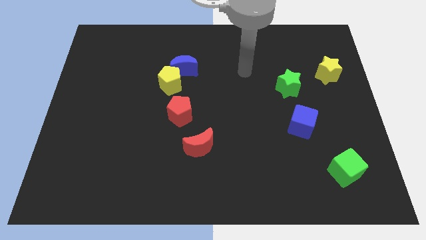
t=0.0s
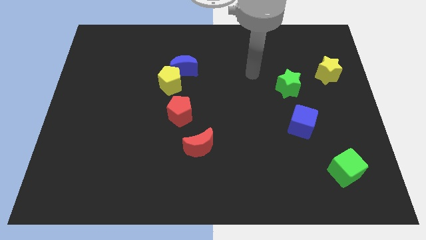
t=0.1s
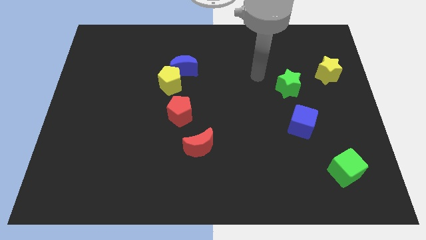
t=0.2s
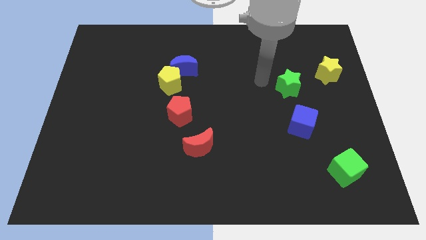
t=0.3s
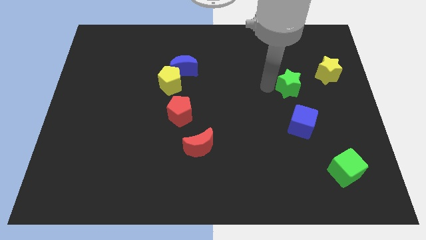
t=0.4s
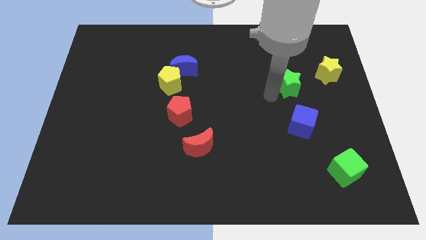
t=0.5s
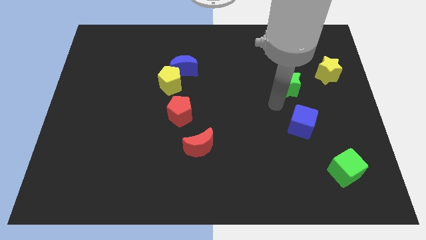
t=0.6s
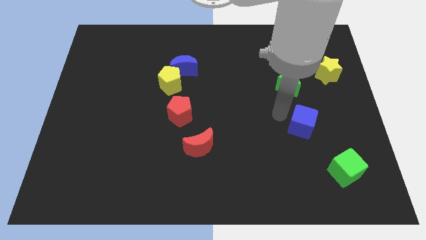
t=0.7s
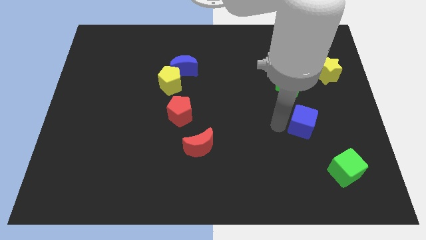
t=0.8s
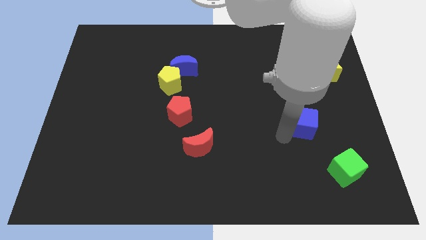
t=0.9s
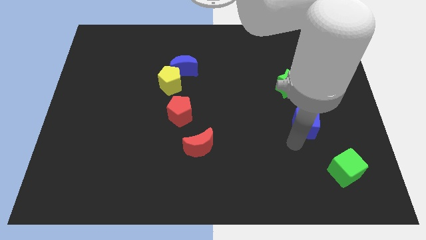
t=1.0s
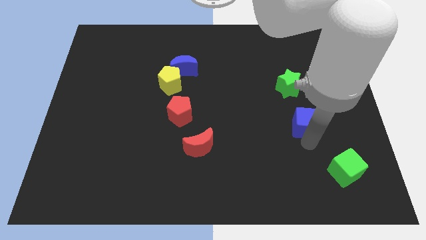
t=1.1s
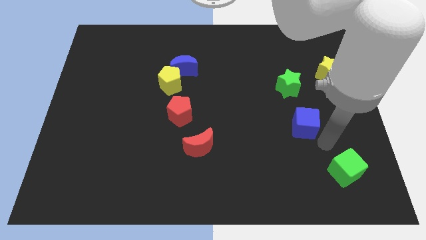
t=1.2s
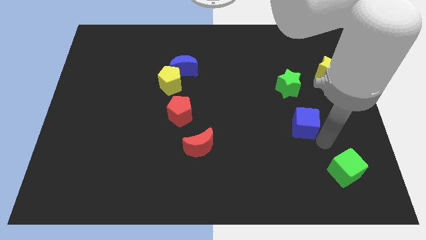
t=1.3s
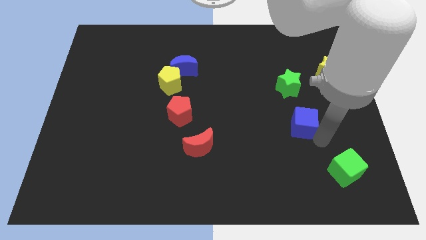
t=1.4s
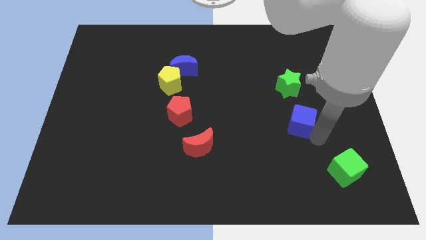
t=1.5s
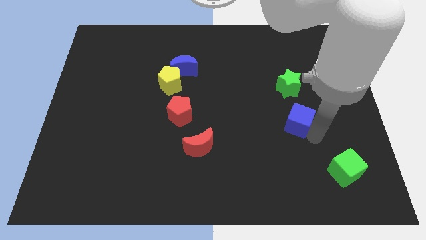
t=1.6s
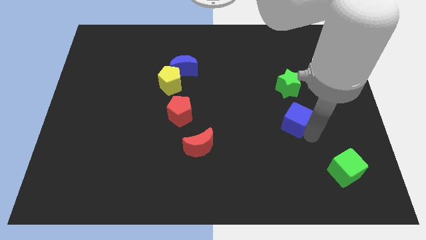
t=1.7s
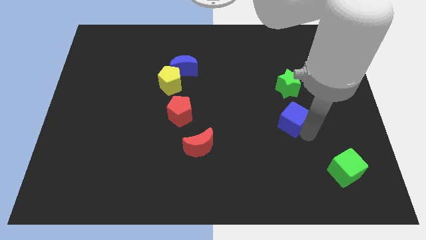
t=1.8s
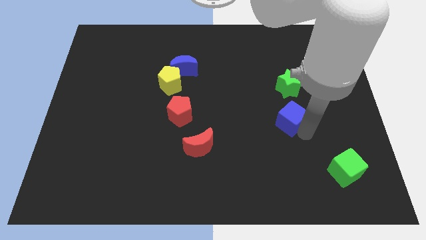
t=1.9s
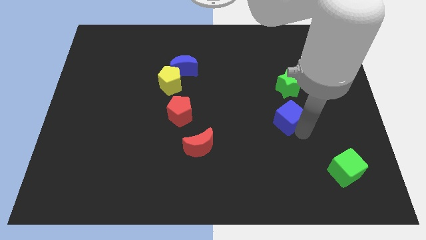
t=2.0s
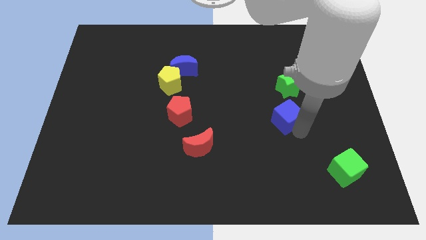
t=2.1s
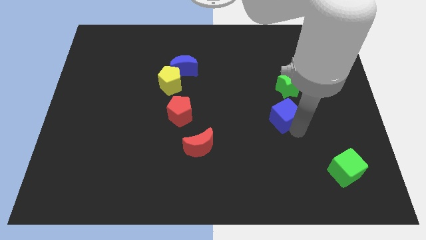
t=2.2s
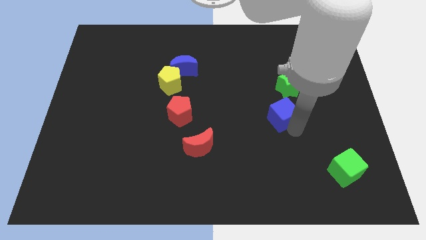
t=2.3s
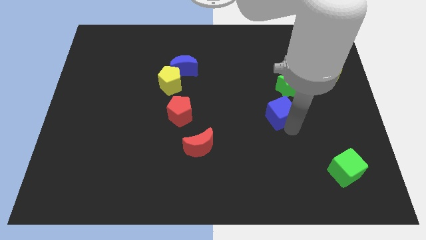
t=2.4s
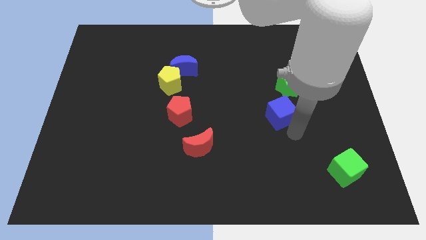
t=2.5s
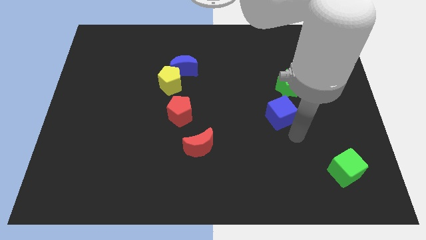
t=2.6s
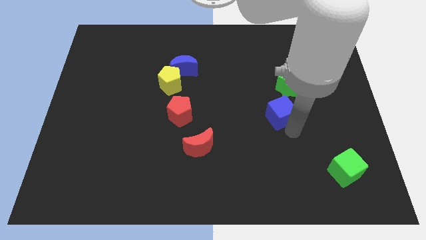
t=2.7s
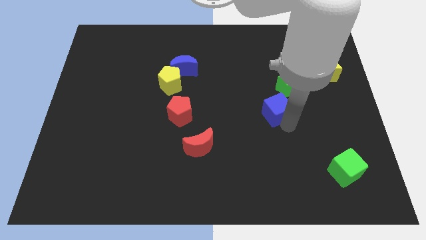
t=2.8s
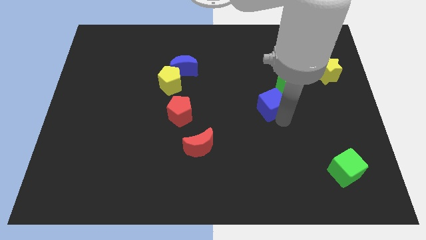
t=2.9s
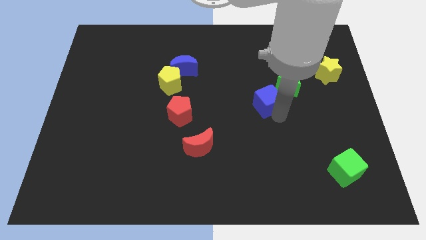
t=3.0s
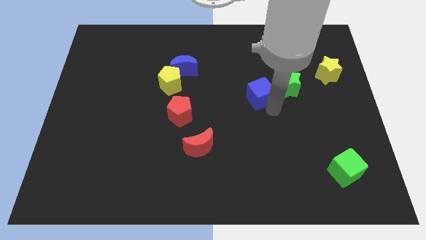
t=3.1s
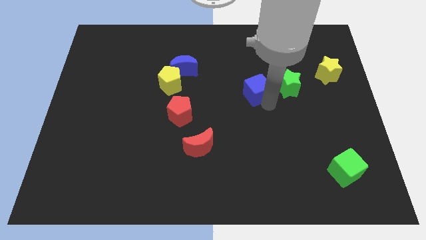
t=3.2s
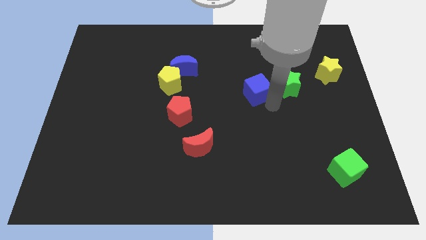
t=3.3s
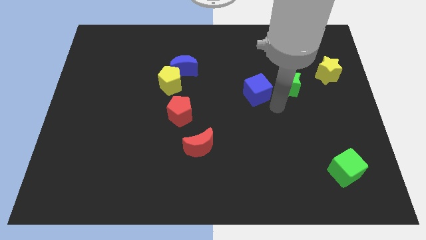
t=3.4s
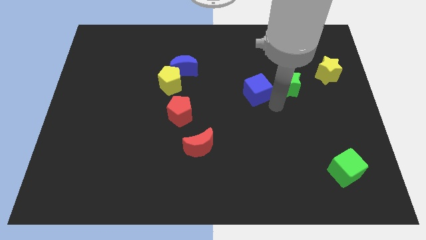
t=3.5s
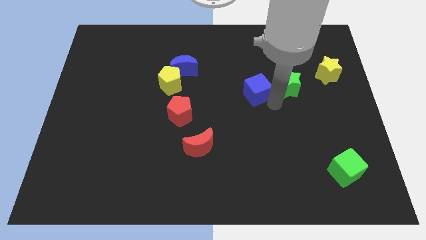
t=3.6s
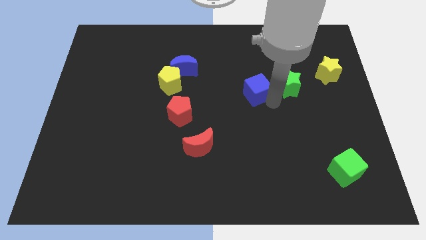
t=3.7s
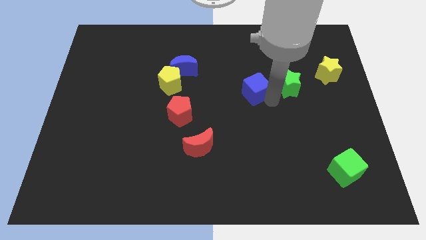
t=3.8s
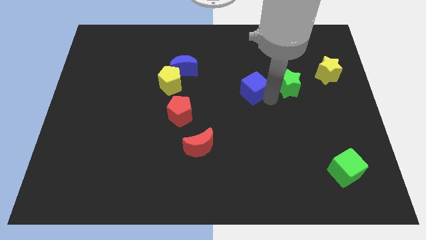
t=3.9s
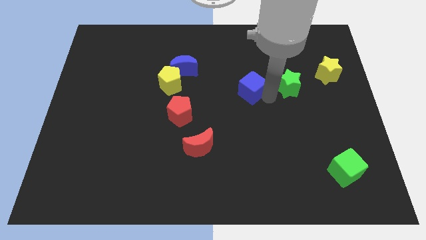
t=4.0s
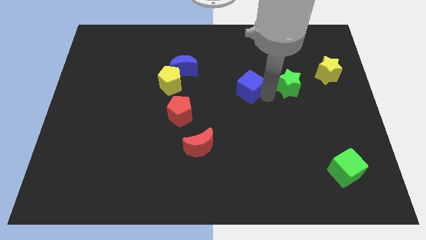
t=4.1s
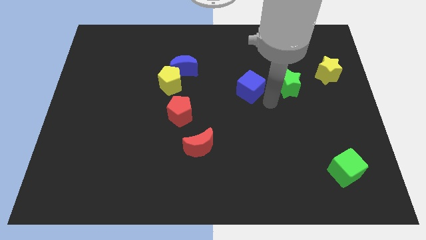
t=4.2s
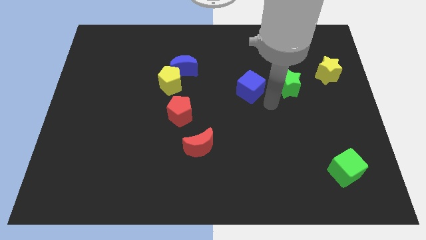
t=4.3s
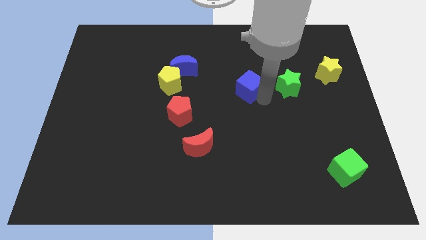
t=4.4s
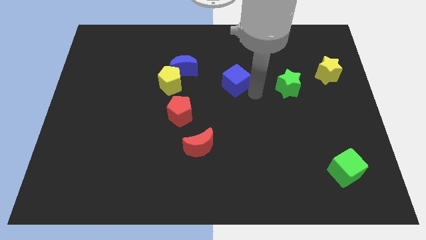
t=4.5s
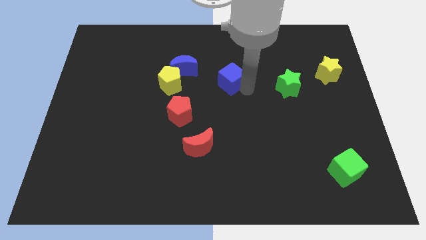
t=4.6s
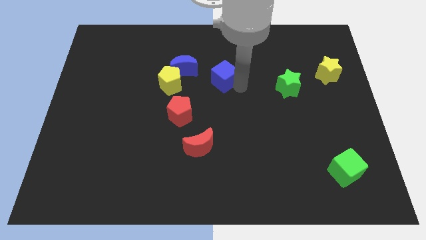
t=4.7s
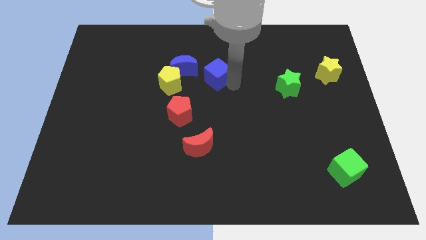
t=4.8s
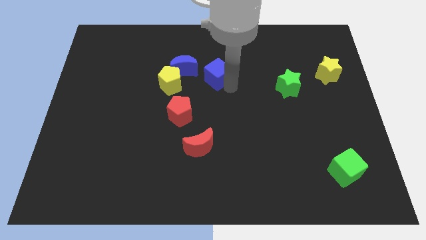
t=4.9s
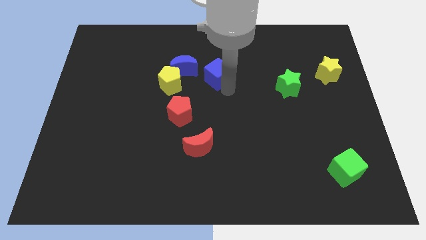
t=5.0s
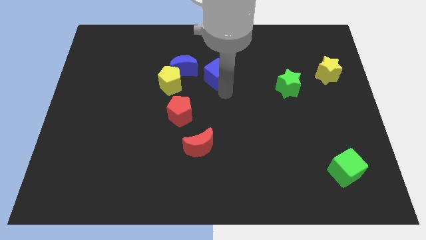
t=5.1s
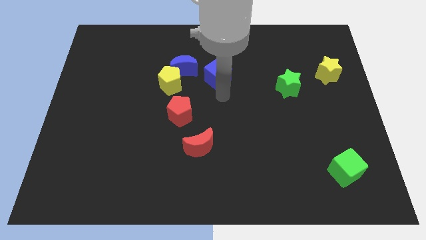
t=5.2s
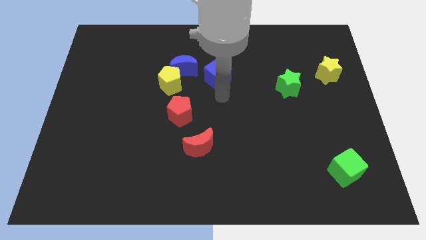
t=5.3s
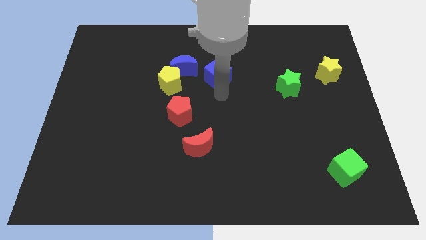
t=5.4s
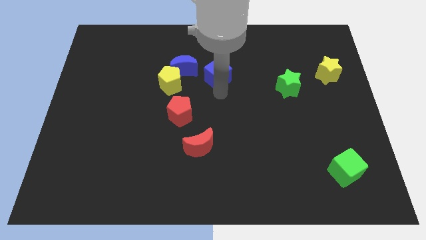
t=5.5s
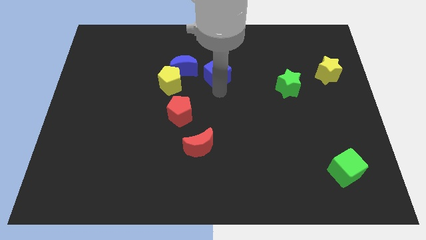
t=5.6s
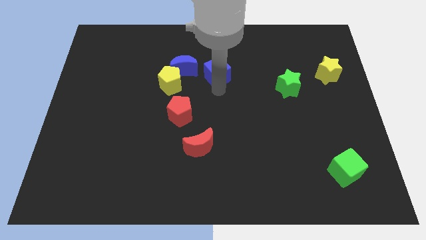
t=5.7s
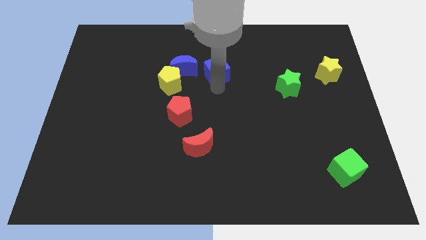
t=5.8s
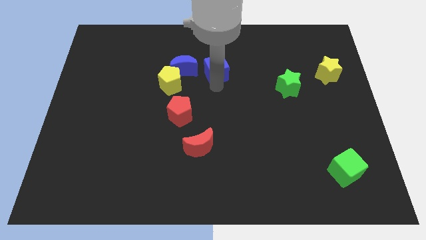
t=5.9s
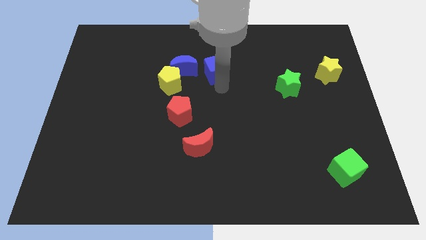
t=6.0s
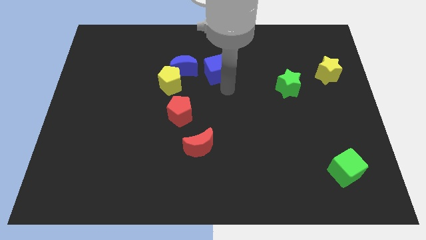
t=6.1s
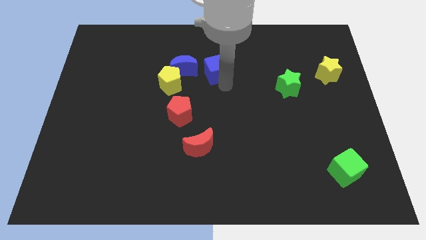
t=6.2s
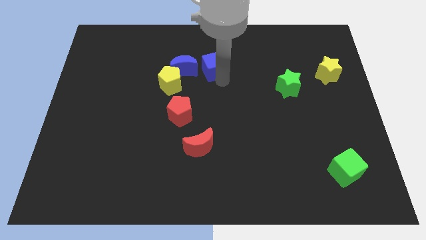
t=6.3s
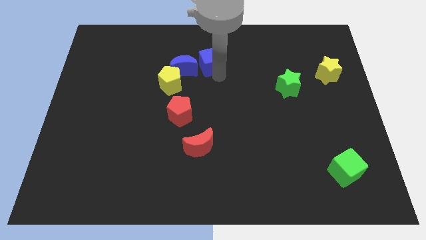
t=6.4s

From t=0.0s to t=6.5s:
move the blue cube diagonally up and to the right of the blue moon

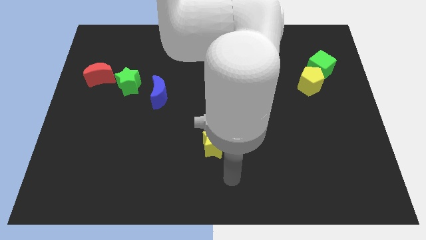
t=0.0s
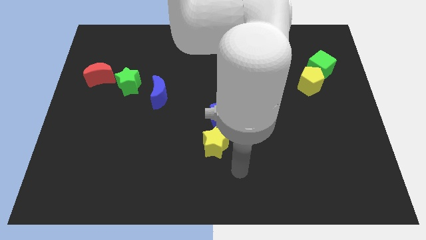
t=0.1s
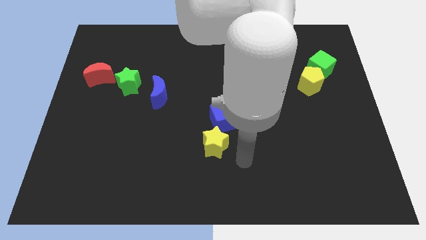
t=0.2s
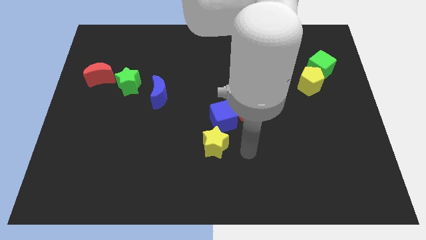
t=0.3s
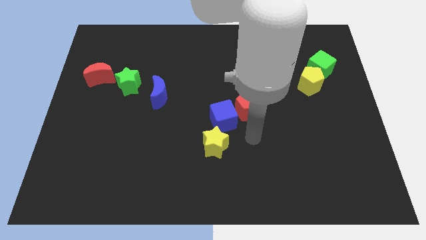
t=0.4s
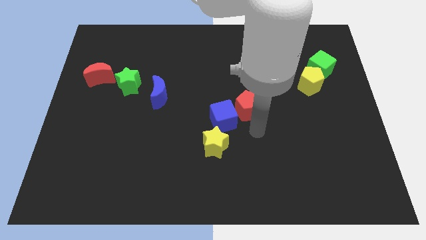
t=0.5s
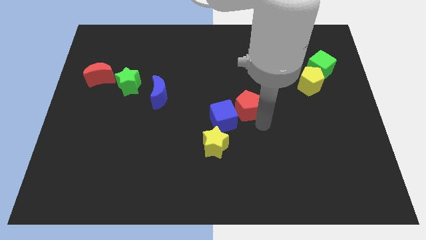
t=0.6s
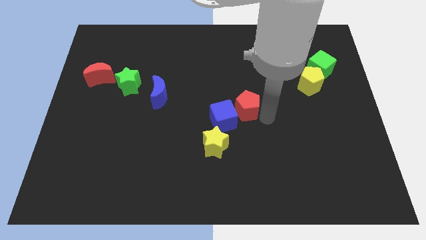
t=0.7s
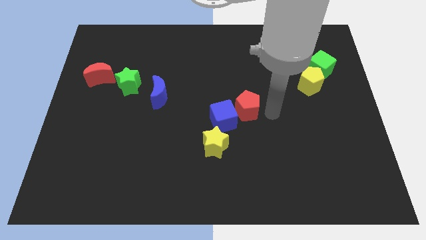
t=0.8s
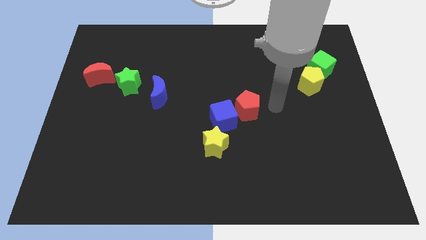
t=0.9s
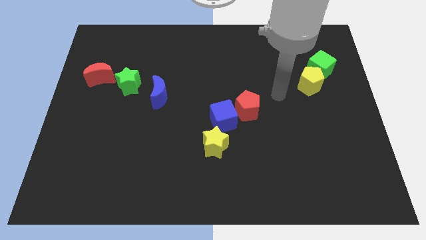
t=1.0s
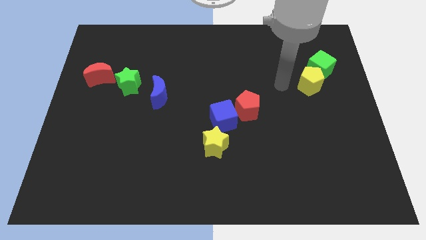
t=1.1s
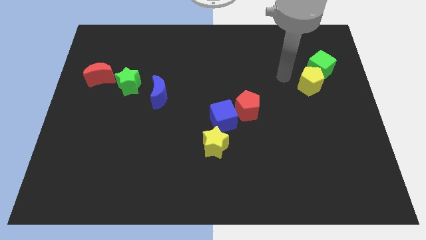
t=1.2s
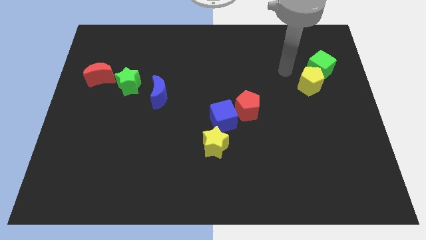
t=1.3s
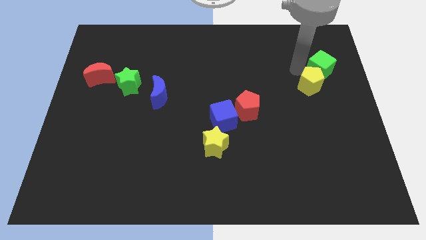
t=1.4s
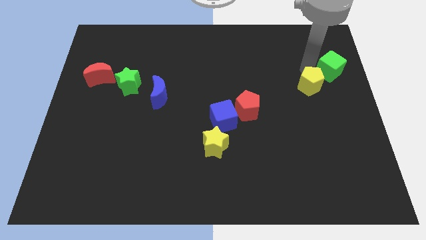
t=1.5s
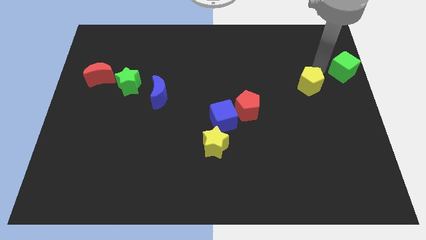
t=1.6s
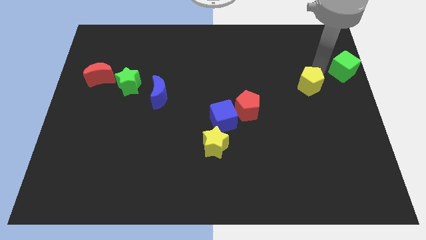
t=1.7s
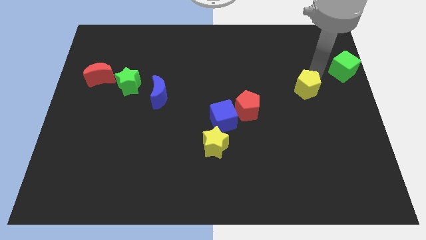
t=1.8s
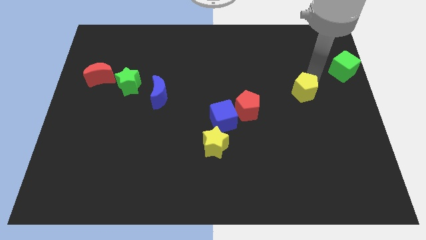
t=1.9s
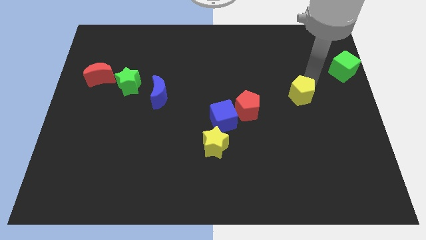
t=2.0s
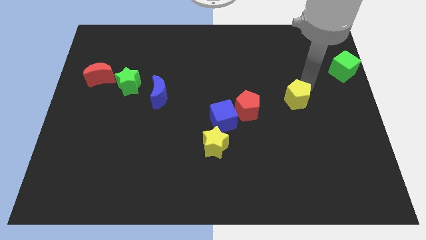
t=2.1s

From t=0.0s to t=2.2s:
slide the yellow pentagon to the right side of the red pentagon
